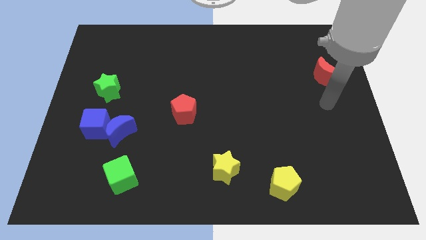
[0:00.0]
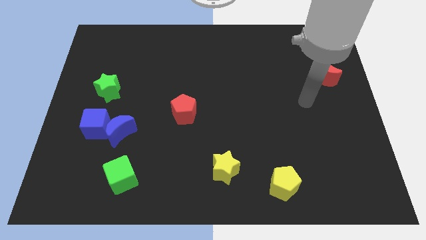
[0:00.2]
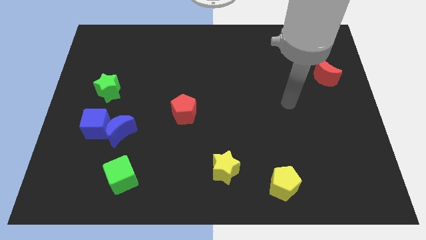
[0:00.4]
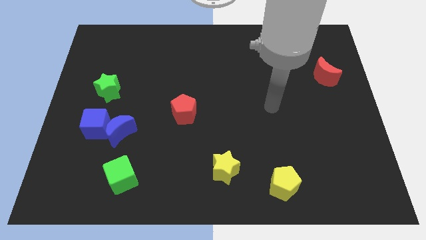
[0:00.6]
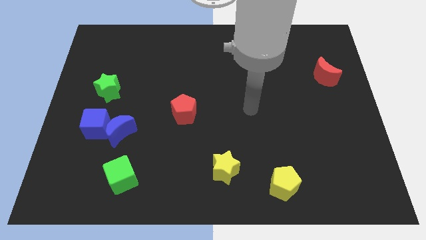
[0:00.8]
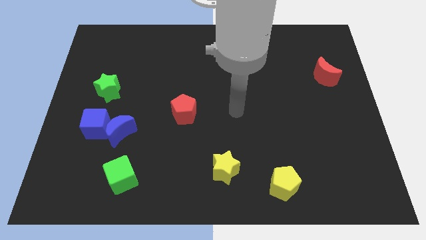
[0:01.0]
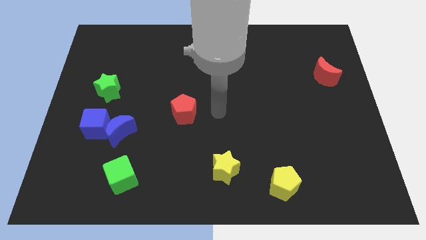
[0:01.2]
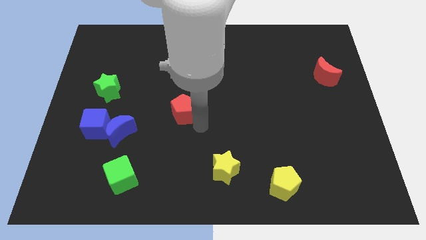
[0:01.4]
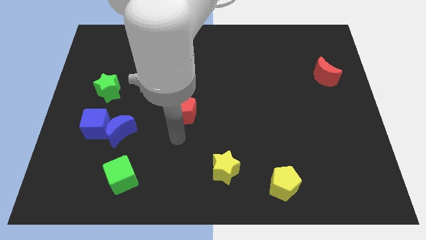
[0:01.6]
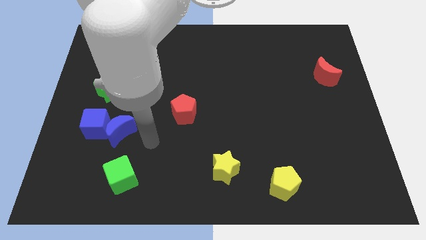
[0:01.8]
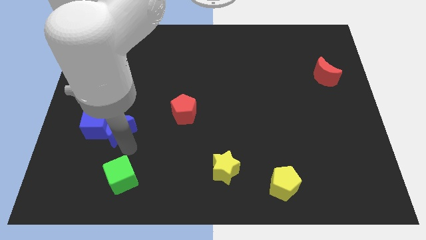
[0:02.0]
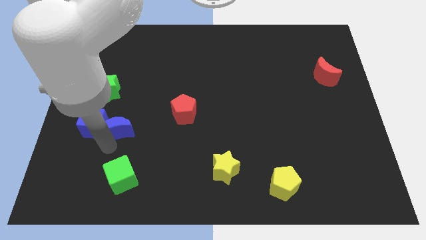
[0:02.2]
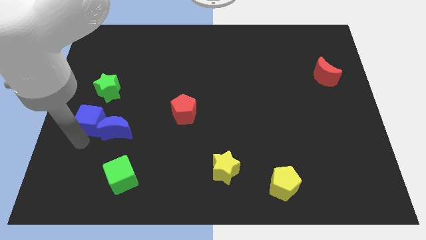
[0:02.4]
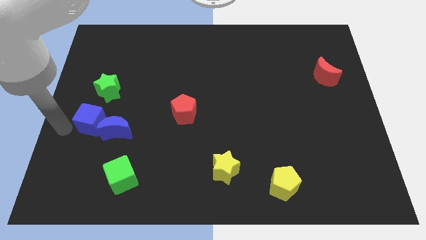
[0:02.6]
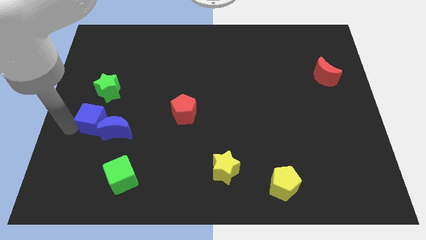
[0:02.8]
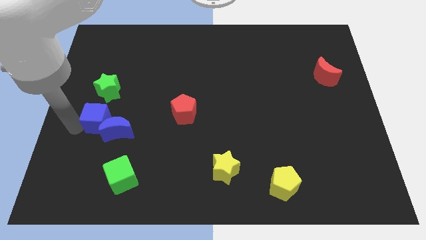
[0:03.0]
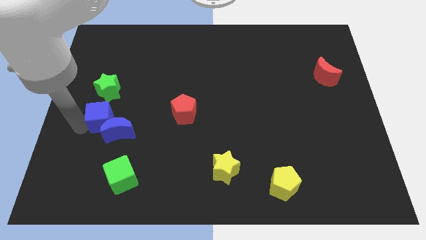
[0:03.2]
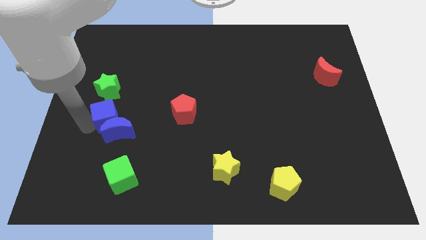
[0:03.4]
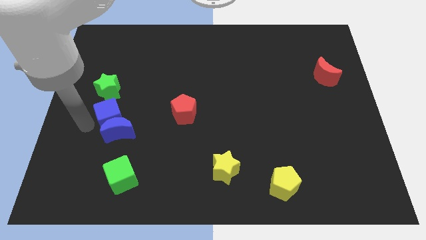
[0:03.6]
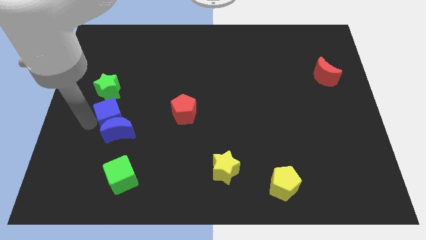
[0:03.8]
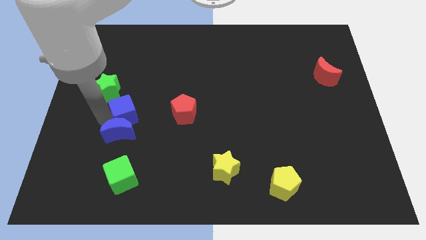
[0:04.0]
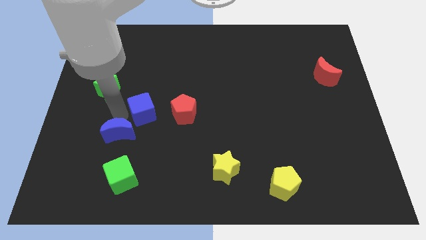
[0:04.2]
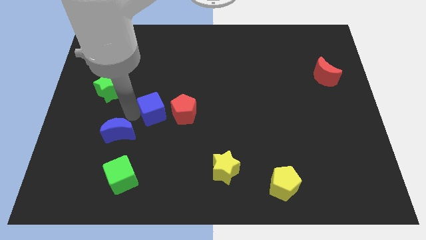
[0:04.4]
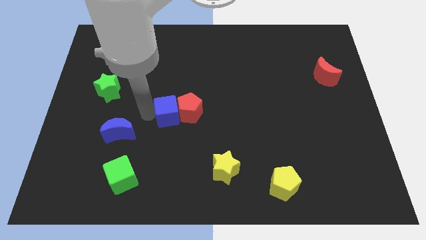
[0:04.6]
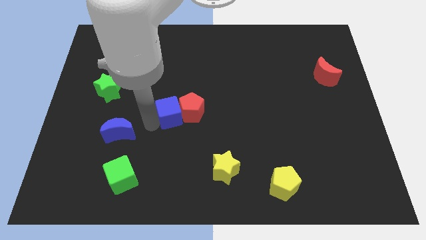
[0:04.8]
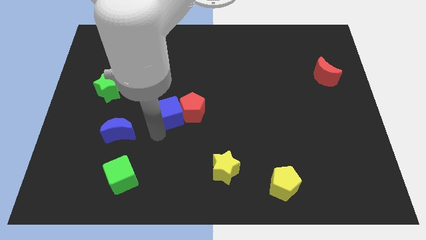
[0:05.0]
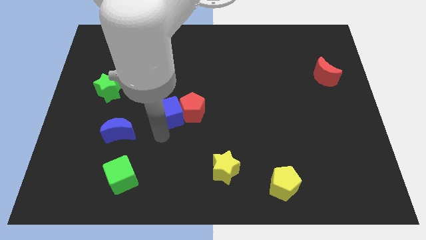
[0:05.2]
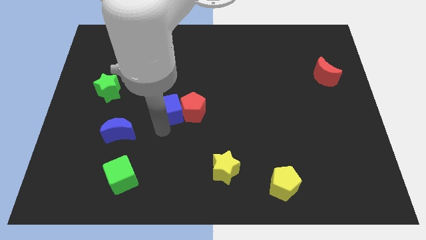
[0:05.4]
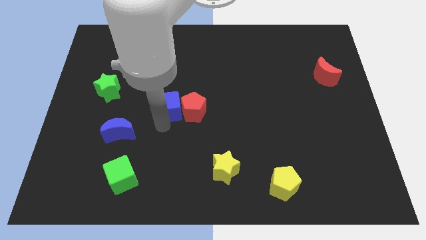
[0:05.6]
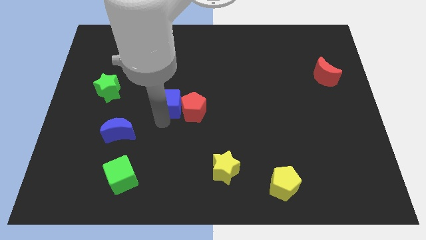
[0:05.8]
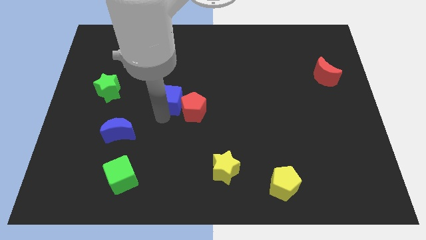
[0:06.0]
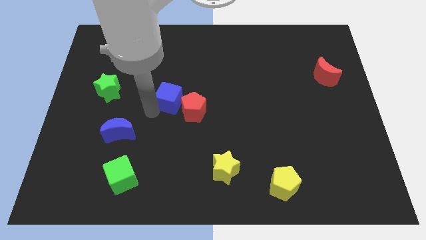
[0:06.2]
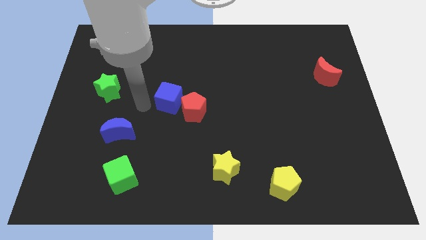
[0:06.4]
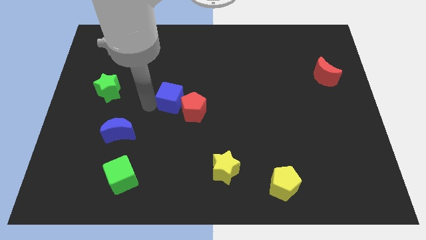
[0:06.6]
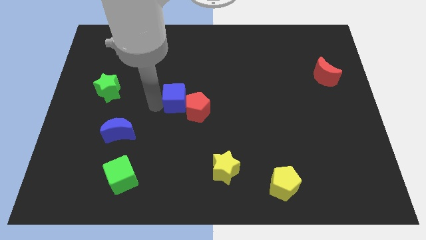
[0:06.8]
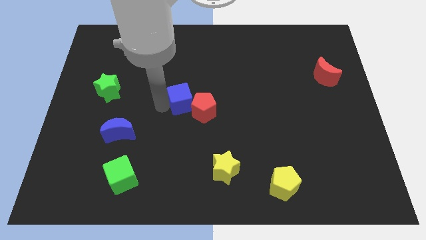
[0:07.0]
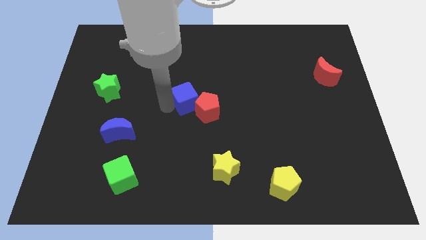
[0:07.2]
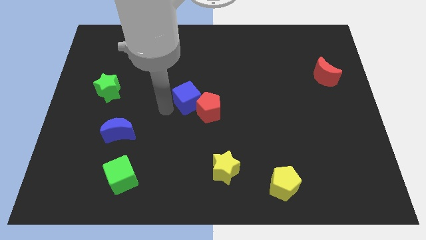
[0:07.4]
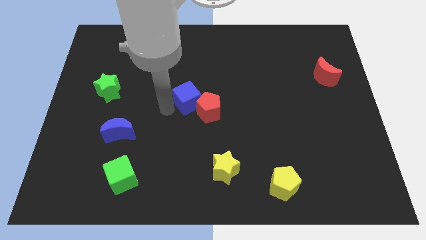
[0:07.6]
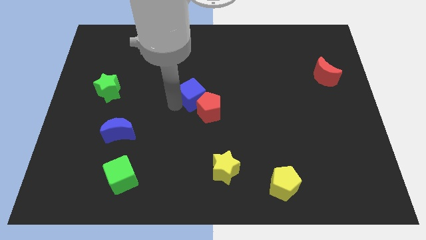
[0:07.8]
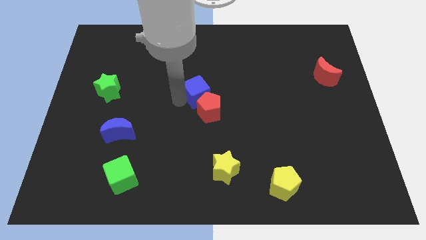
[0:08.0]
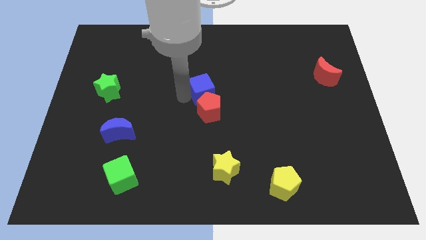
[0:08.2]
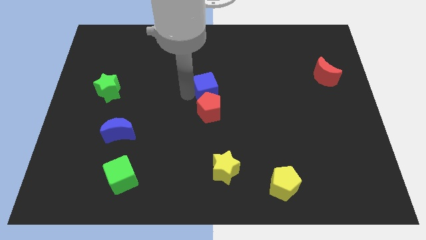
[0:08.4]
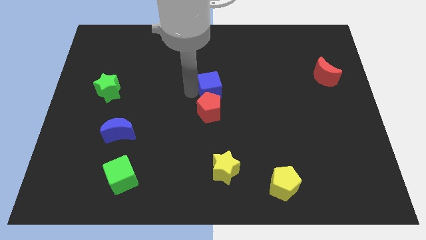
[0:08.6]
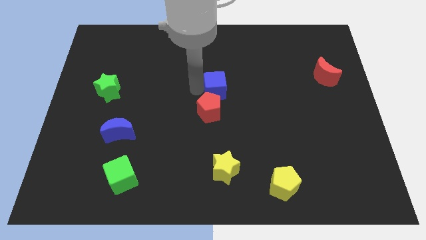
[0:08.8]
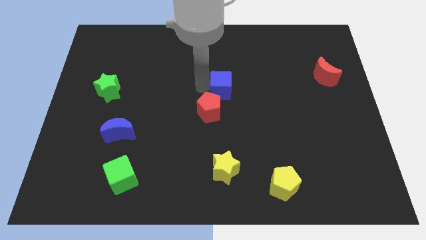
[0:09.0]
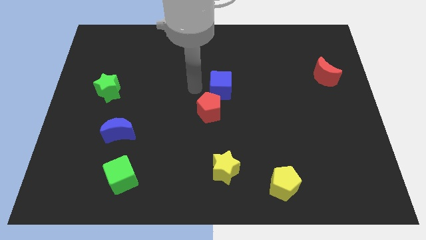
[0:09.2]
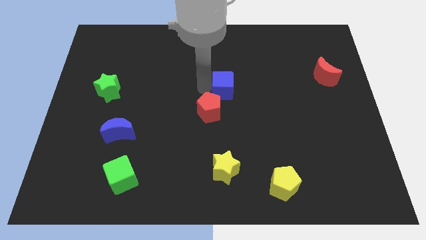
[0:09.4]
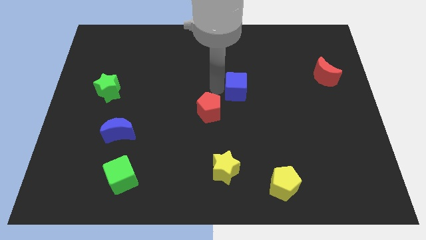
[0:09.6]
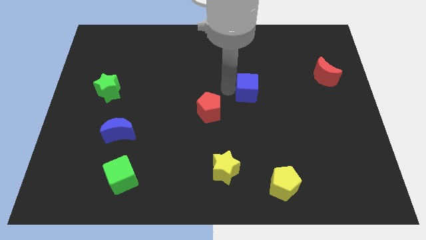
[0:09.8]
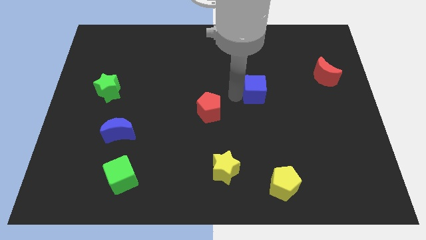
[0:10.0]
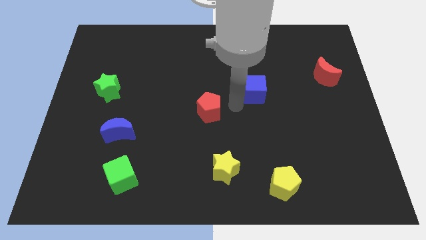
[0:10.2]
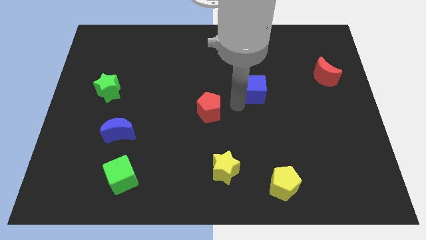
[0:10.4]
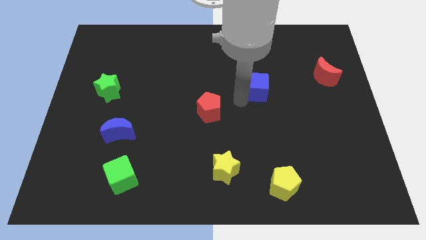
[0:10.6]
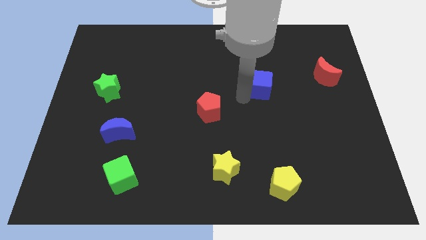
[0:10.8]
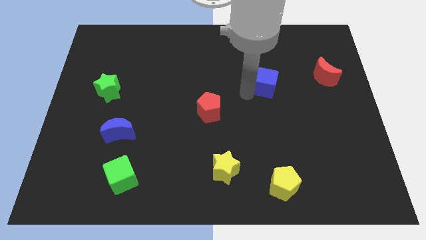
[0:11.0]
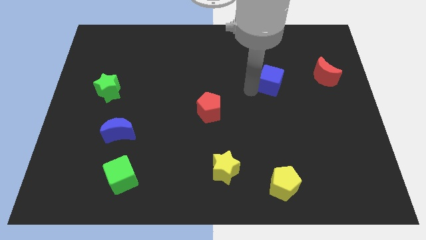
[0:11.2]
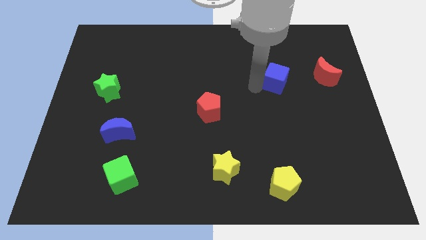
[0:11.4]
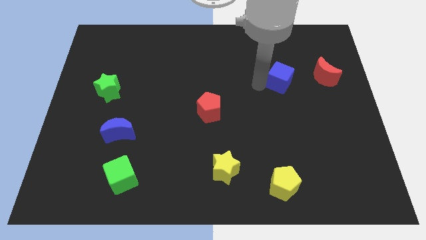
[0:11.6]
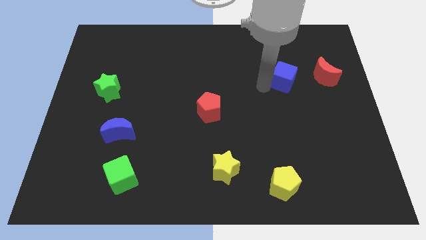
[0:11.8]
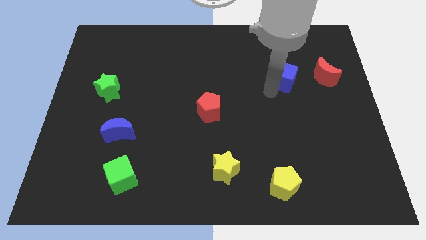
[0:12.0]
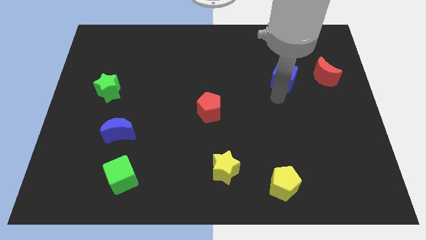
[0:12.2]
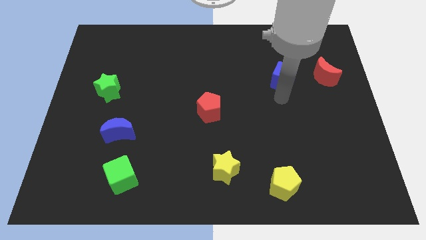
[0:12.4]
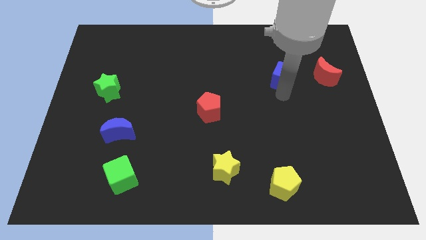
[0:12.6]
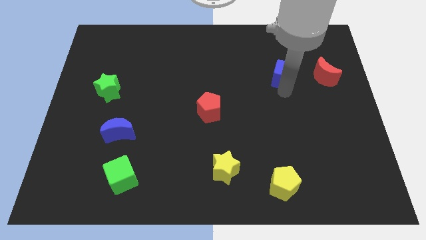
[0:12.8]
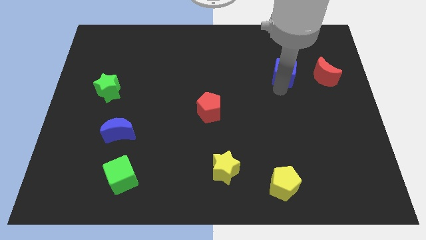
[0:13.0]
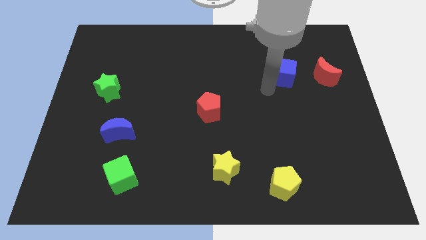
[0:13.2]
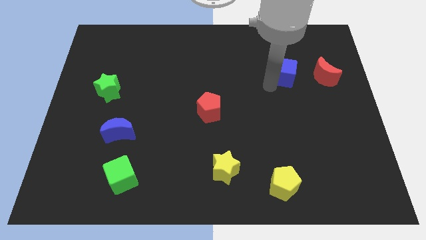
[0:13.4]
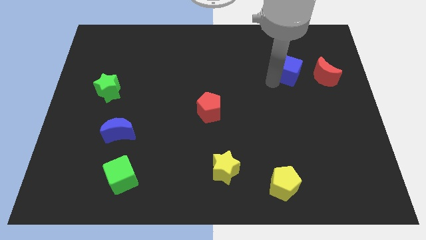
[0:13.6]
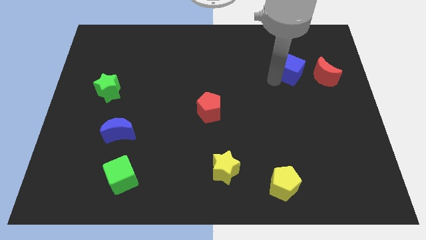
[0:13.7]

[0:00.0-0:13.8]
push the blue cube diagonally up and to the left of the red moon
